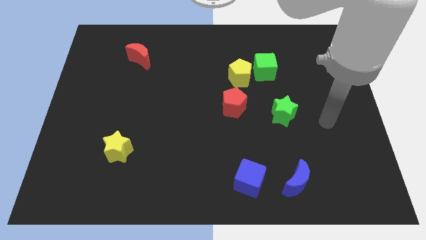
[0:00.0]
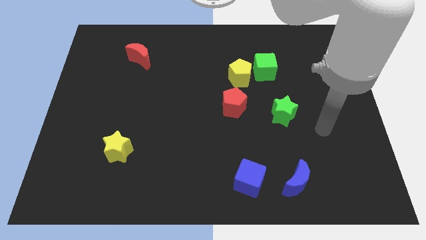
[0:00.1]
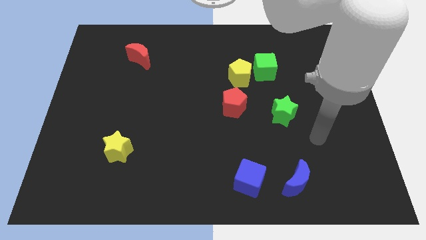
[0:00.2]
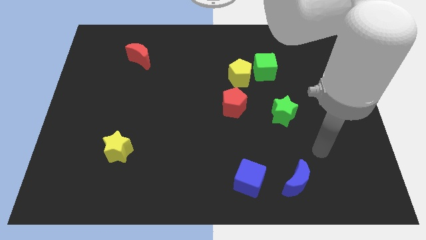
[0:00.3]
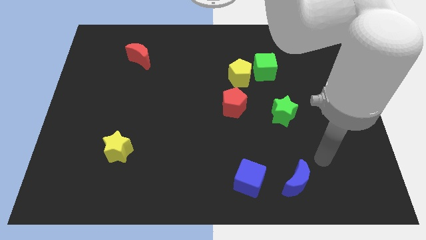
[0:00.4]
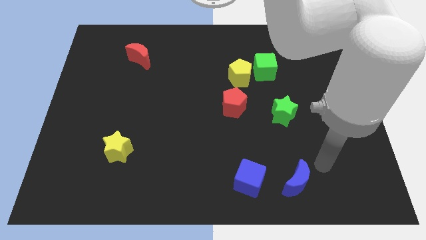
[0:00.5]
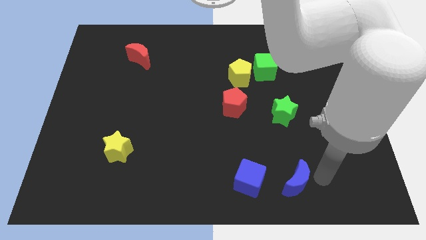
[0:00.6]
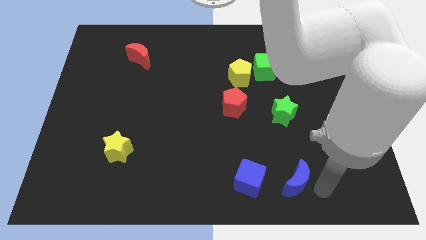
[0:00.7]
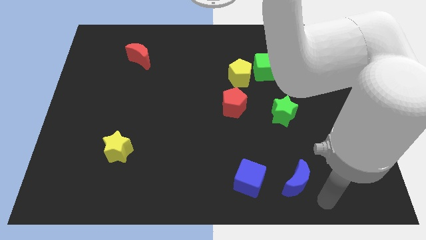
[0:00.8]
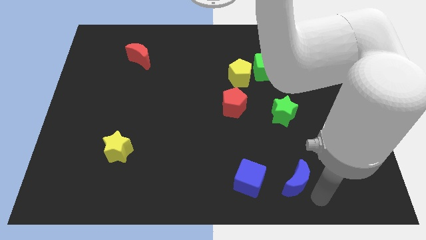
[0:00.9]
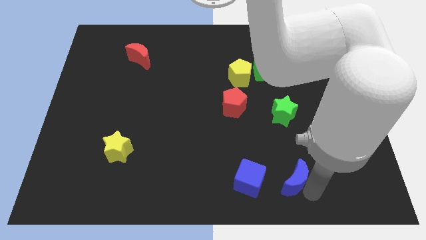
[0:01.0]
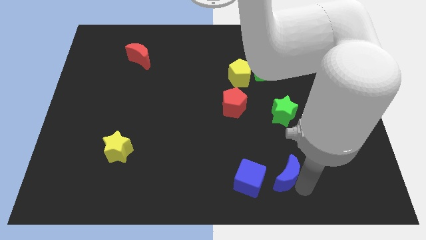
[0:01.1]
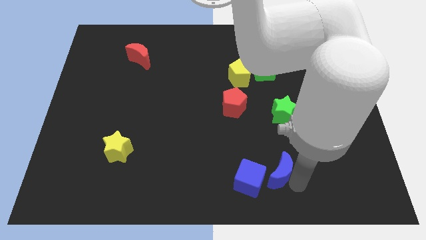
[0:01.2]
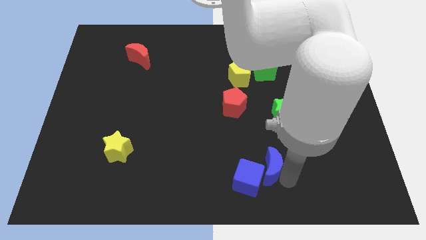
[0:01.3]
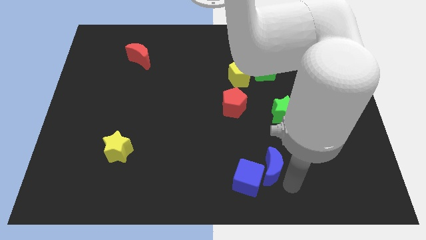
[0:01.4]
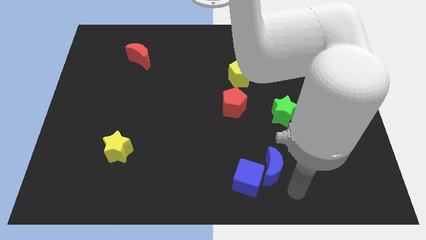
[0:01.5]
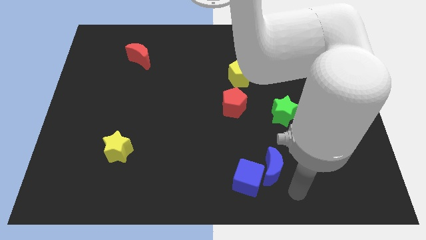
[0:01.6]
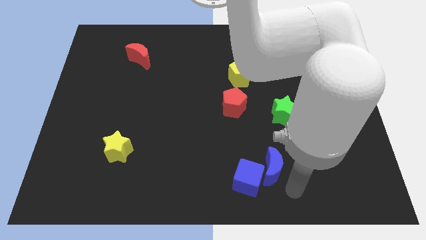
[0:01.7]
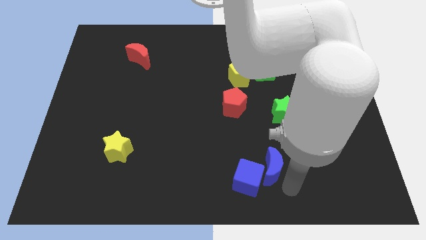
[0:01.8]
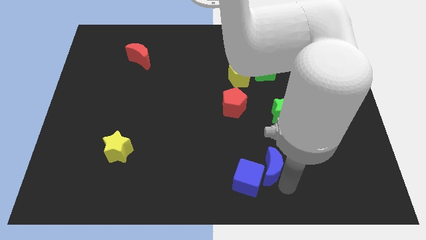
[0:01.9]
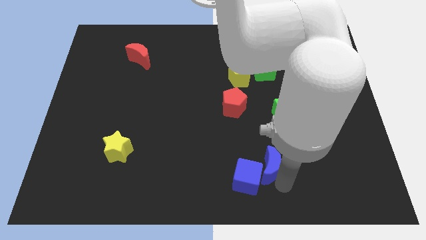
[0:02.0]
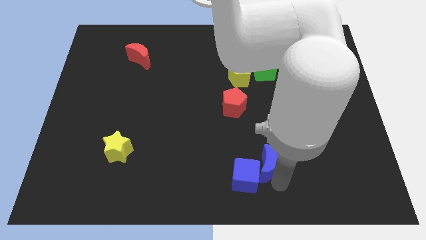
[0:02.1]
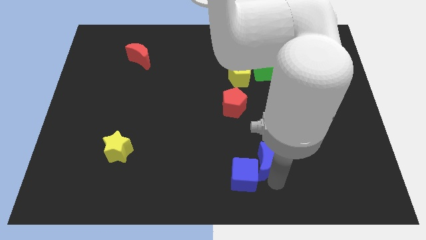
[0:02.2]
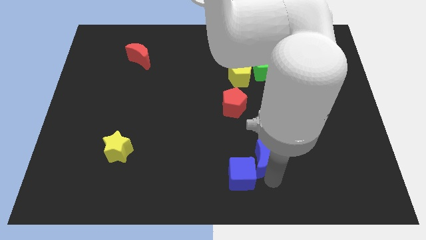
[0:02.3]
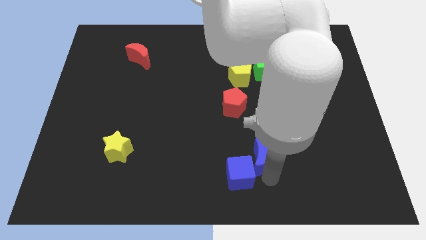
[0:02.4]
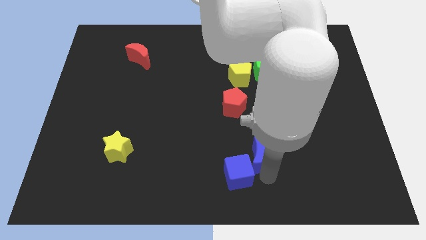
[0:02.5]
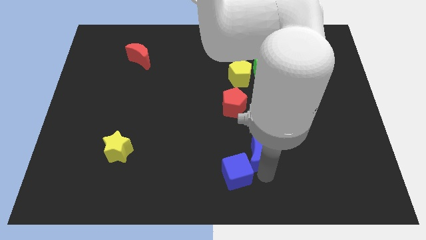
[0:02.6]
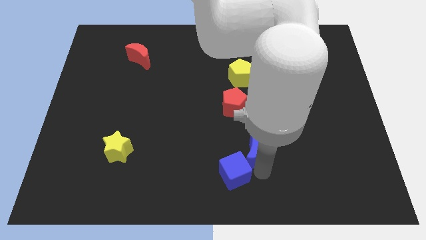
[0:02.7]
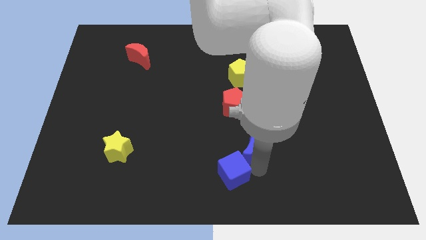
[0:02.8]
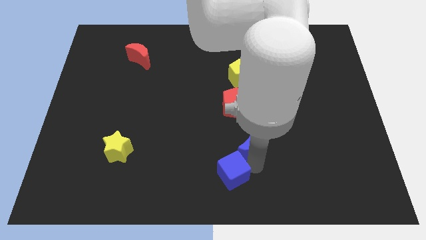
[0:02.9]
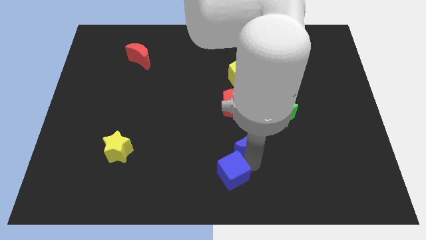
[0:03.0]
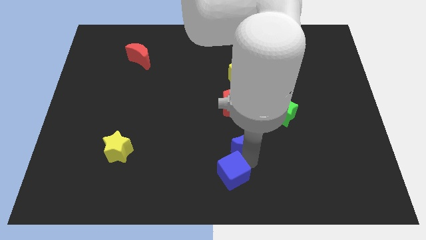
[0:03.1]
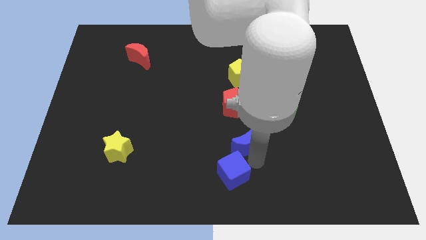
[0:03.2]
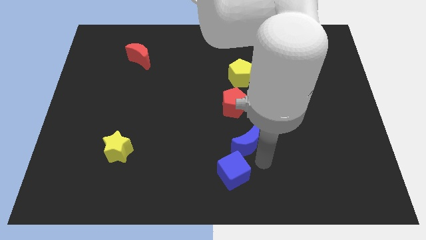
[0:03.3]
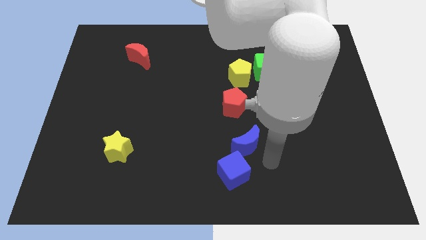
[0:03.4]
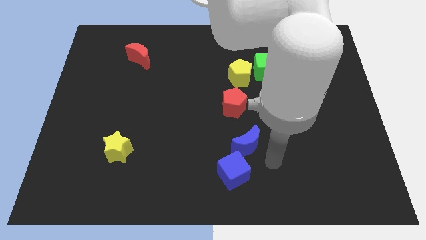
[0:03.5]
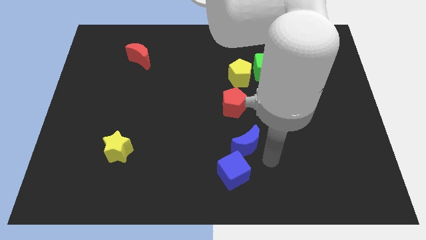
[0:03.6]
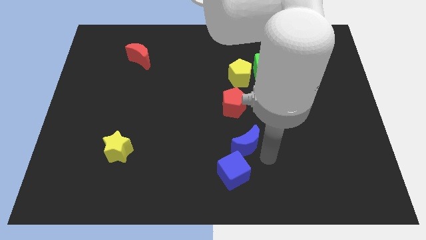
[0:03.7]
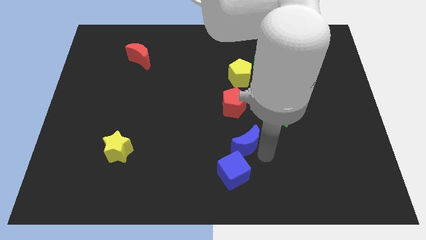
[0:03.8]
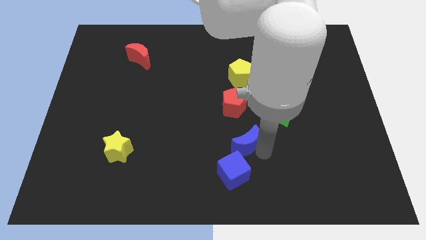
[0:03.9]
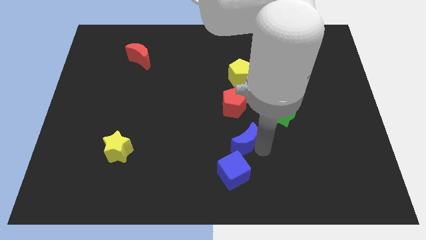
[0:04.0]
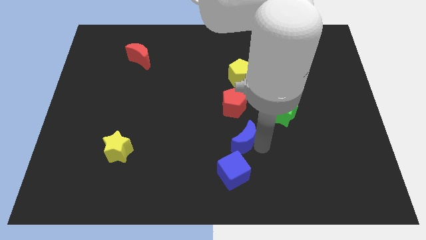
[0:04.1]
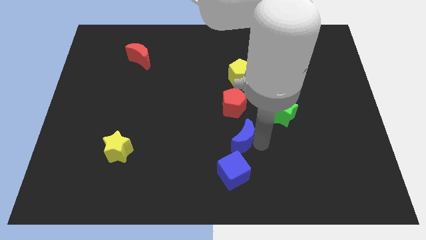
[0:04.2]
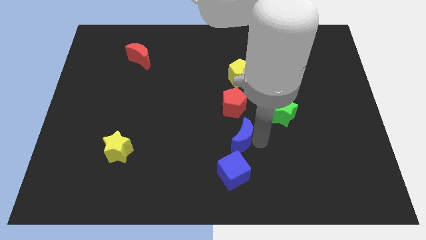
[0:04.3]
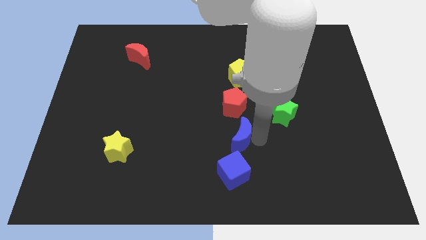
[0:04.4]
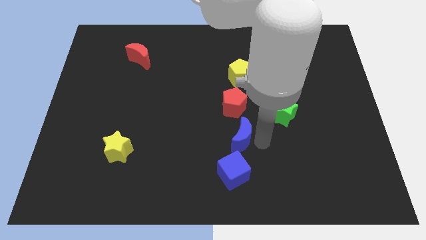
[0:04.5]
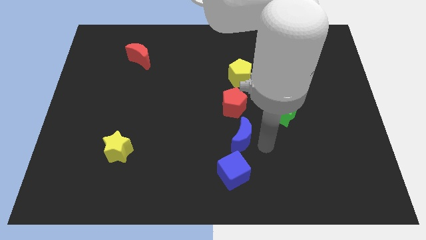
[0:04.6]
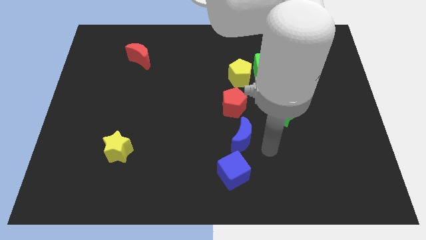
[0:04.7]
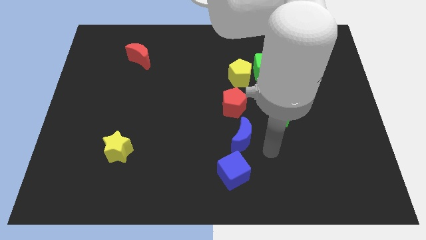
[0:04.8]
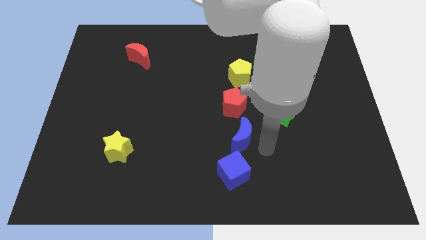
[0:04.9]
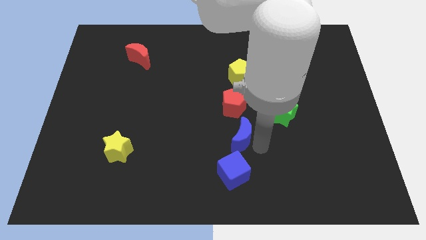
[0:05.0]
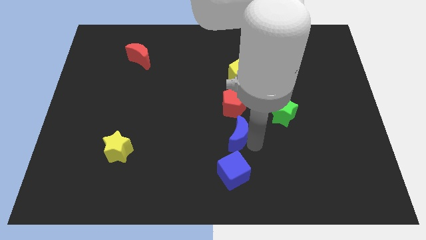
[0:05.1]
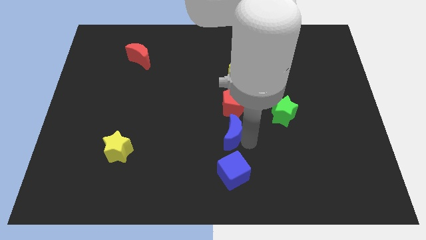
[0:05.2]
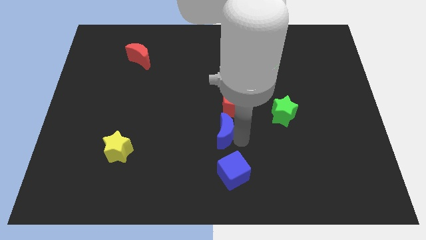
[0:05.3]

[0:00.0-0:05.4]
slide the blue moon to the bottom left of the red pentagon

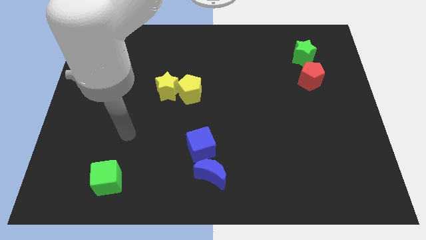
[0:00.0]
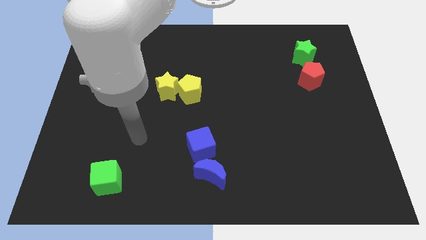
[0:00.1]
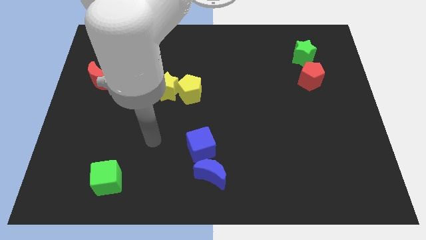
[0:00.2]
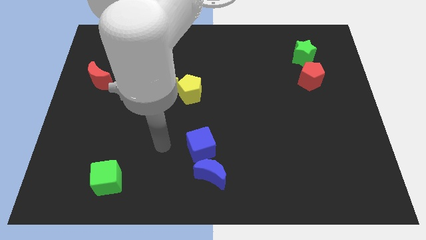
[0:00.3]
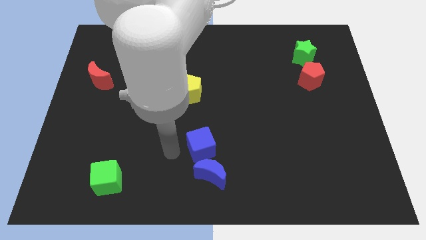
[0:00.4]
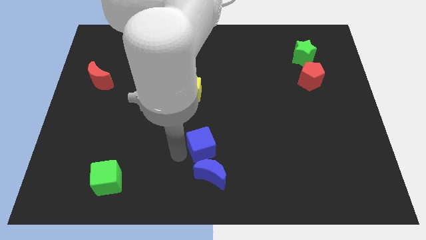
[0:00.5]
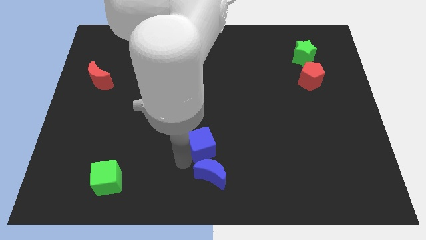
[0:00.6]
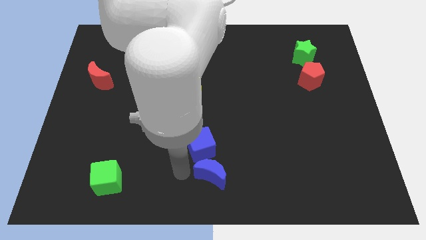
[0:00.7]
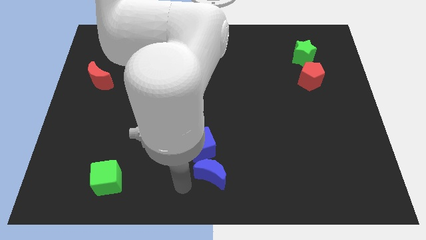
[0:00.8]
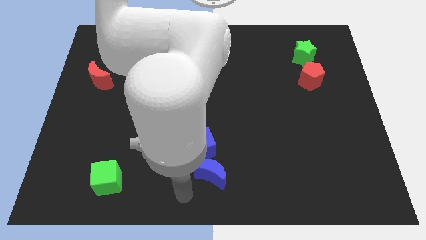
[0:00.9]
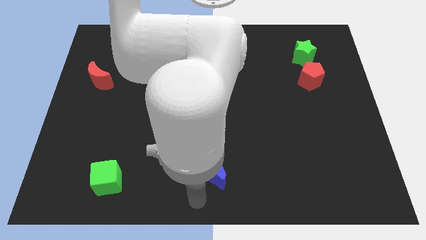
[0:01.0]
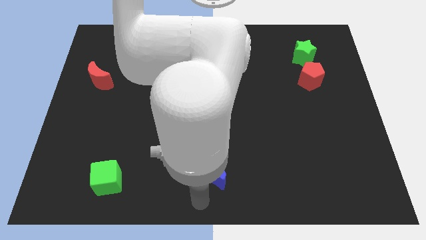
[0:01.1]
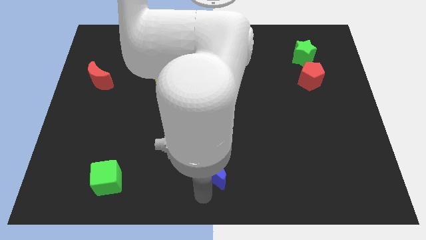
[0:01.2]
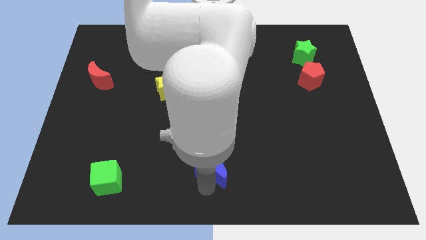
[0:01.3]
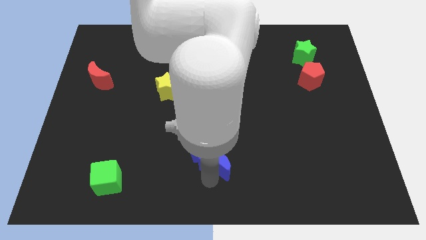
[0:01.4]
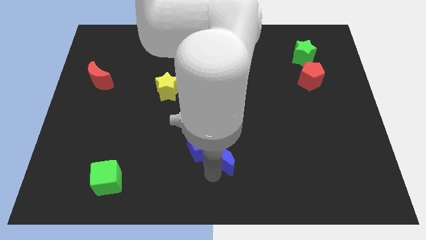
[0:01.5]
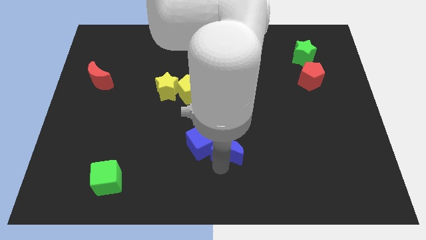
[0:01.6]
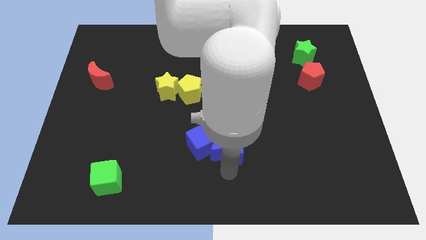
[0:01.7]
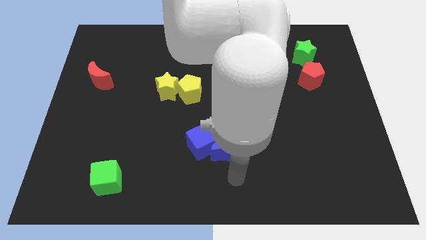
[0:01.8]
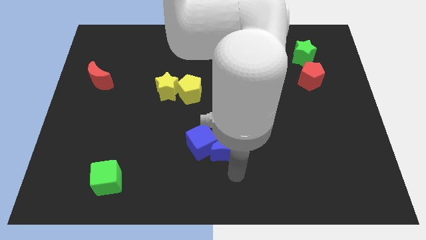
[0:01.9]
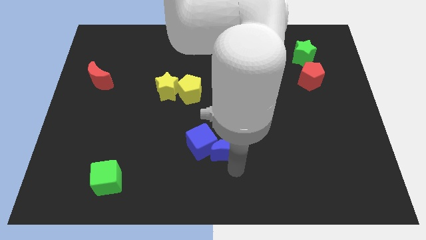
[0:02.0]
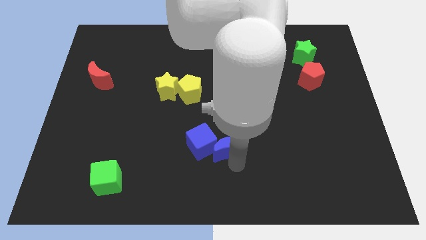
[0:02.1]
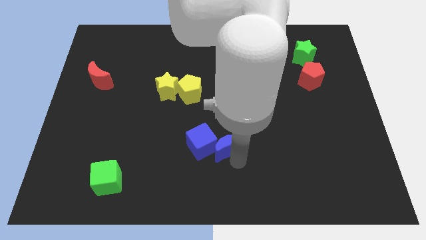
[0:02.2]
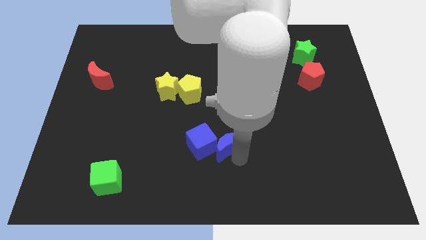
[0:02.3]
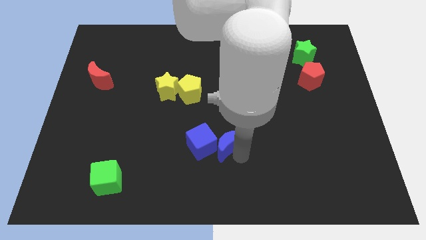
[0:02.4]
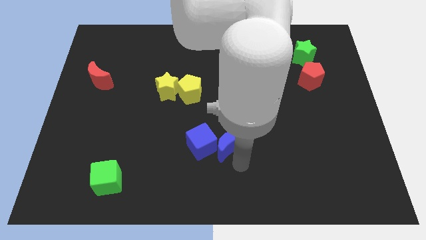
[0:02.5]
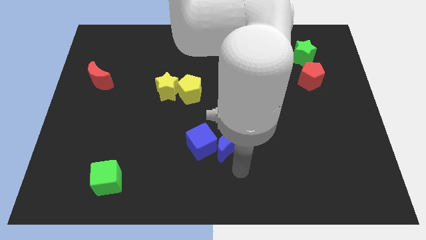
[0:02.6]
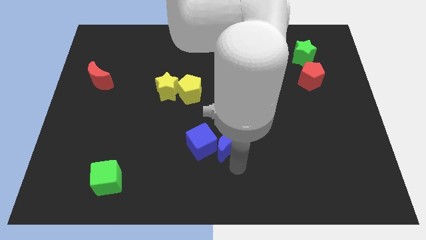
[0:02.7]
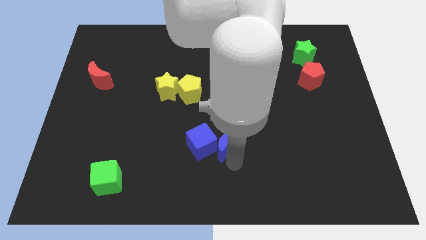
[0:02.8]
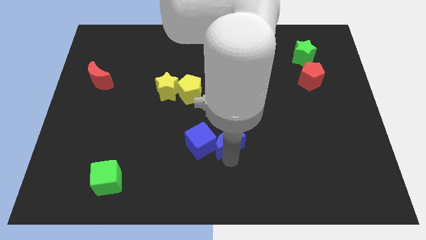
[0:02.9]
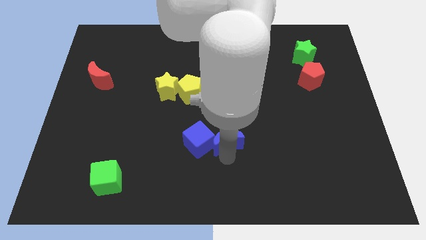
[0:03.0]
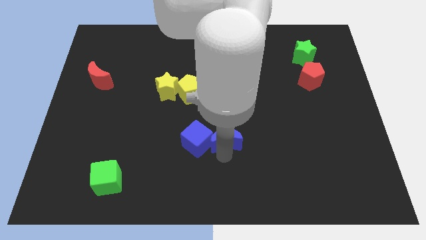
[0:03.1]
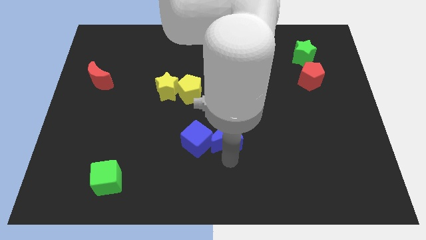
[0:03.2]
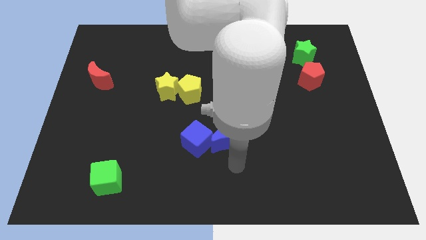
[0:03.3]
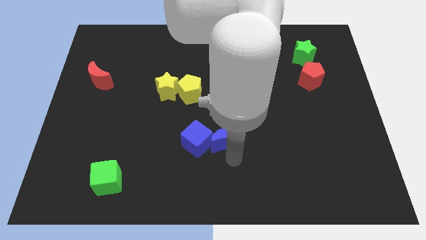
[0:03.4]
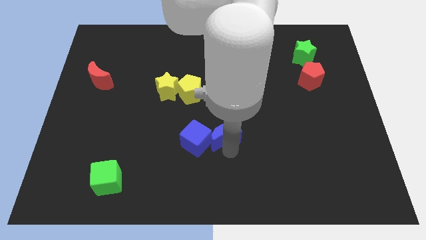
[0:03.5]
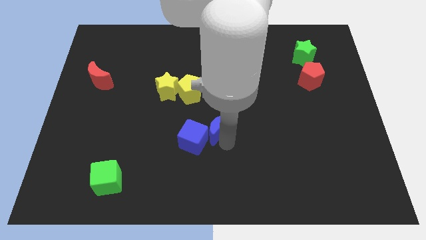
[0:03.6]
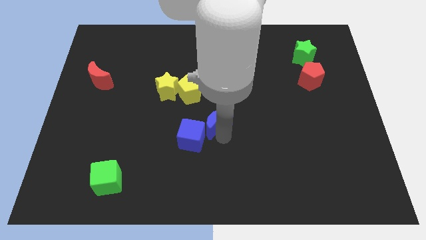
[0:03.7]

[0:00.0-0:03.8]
push the blue moon to the bottom right of the yellow pentagon
